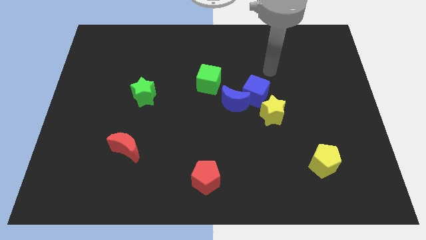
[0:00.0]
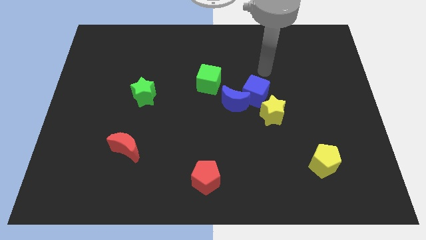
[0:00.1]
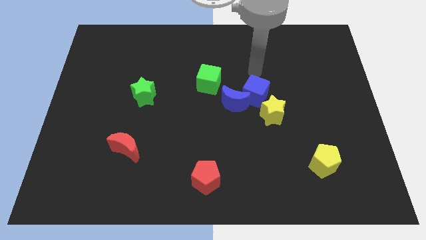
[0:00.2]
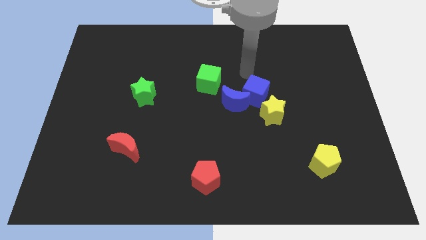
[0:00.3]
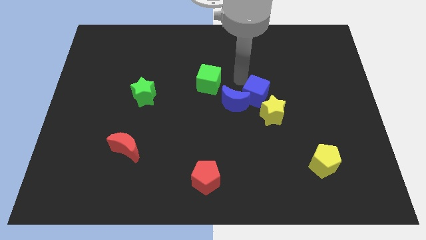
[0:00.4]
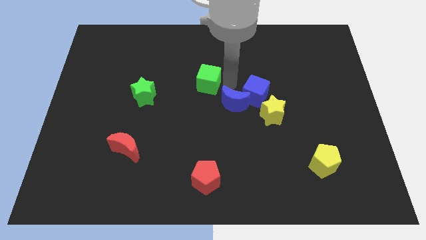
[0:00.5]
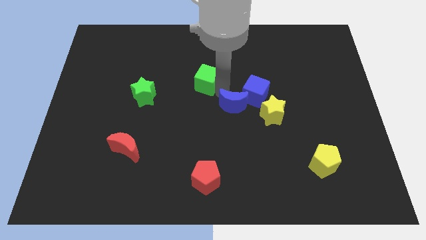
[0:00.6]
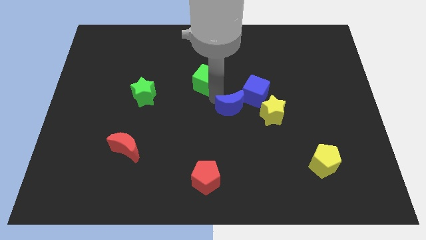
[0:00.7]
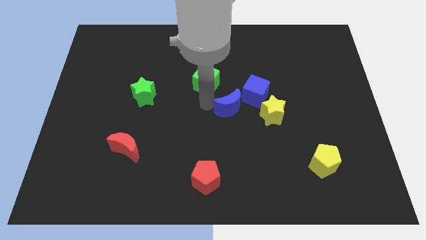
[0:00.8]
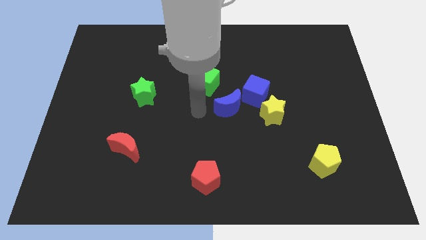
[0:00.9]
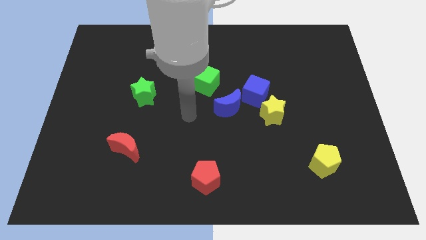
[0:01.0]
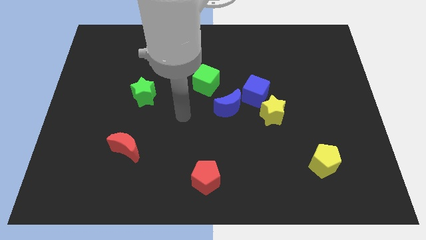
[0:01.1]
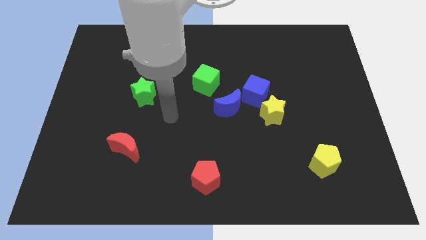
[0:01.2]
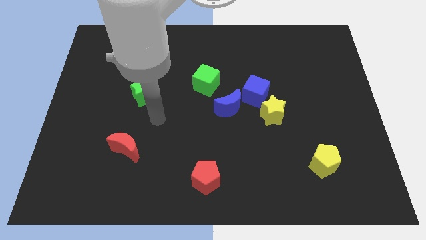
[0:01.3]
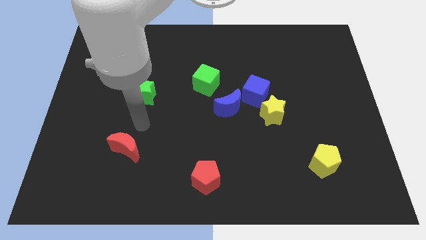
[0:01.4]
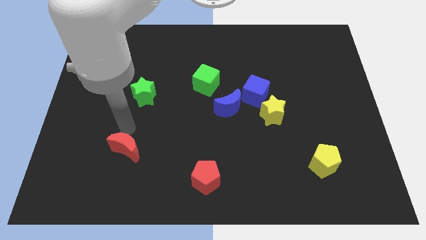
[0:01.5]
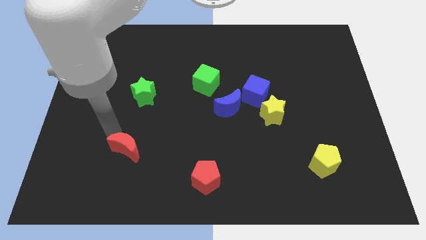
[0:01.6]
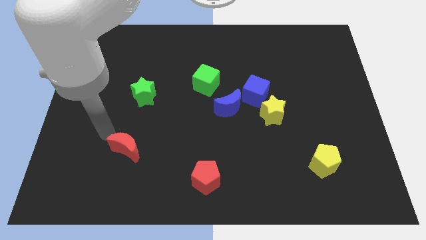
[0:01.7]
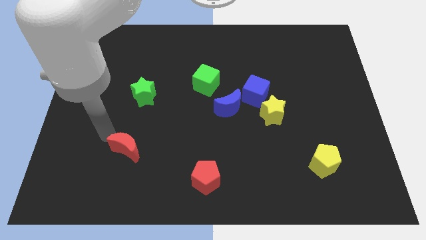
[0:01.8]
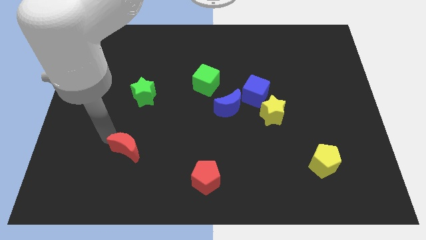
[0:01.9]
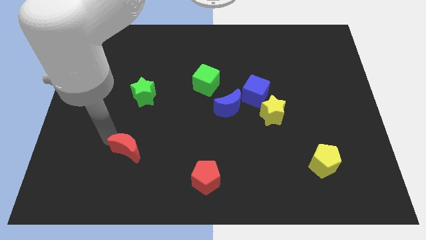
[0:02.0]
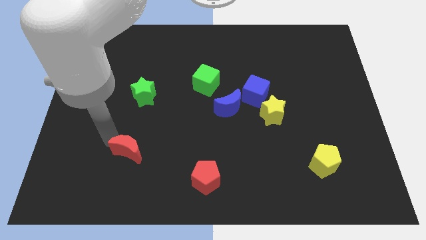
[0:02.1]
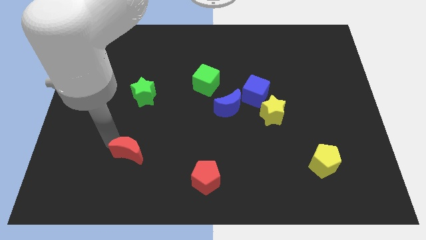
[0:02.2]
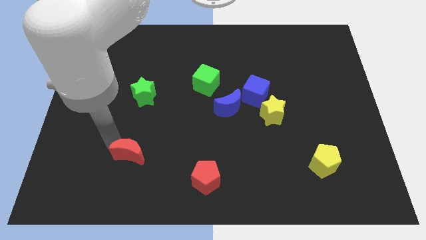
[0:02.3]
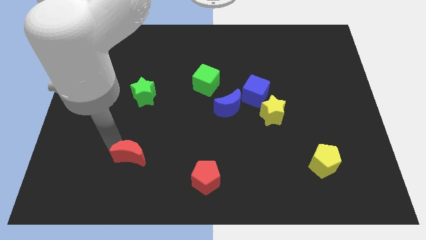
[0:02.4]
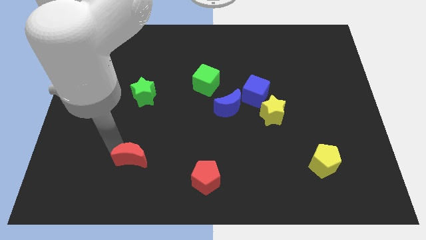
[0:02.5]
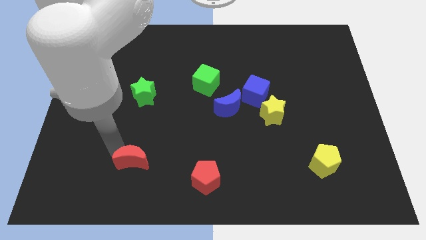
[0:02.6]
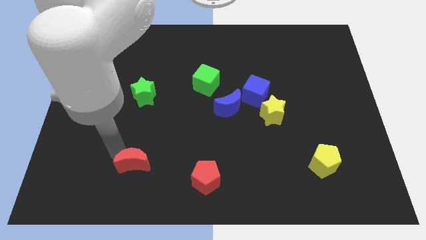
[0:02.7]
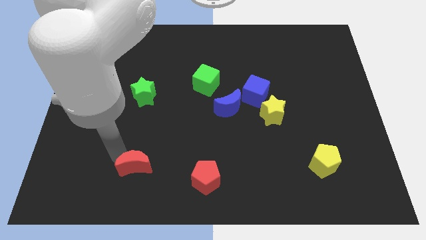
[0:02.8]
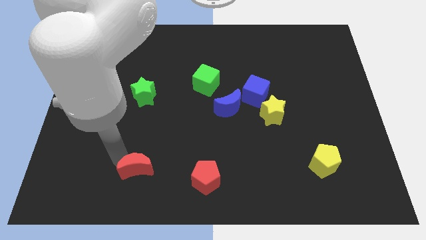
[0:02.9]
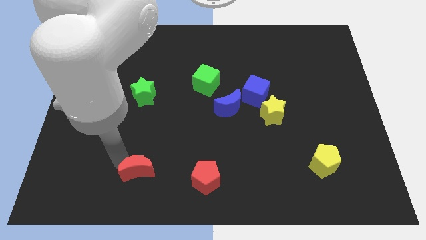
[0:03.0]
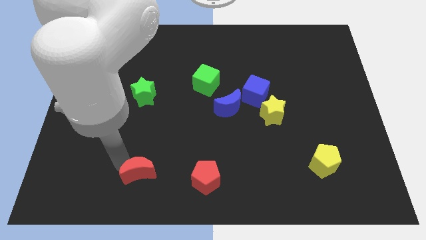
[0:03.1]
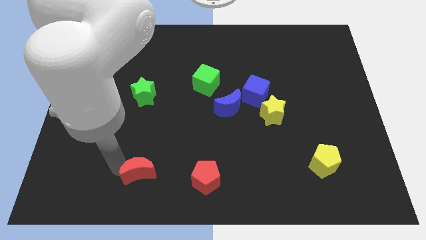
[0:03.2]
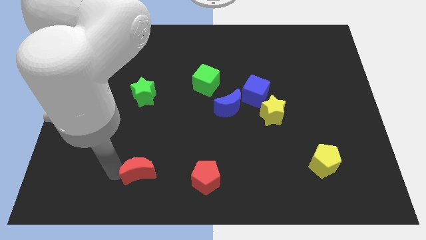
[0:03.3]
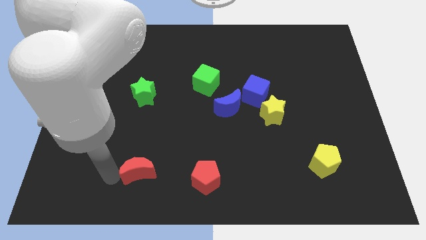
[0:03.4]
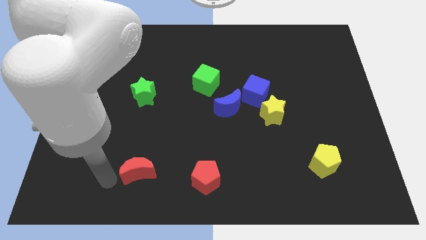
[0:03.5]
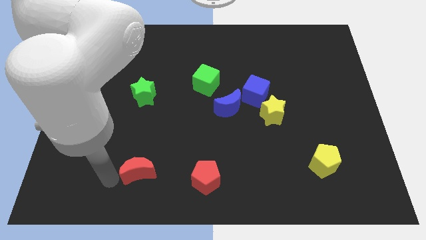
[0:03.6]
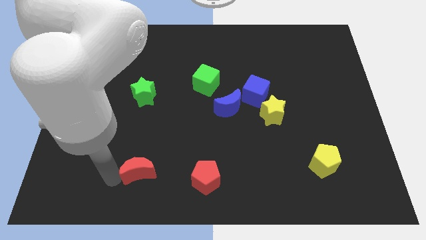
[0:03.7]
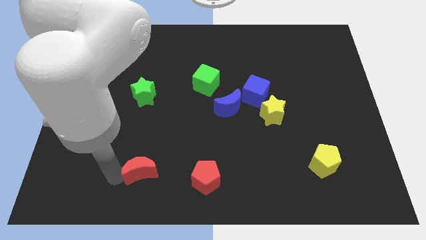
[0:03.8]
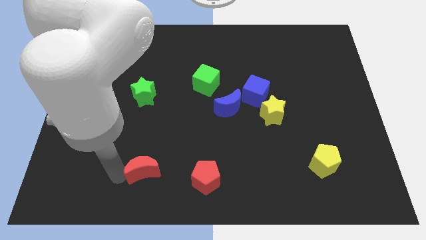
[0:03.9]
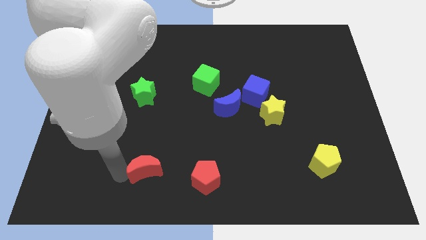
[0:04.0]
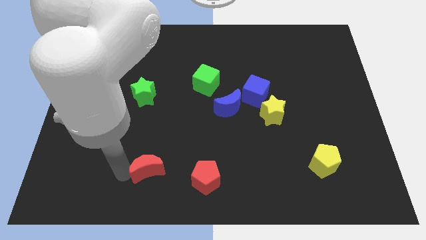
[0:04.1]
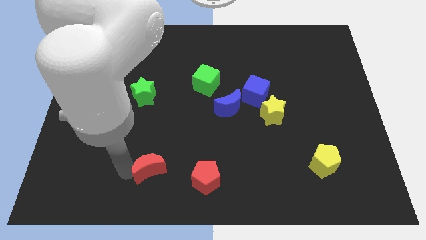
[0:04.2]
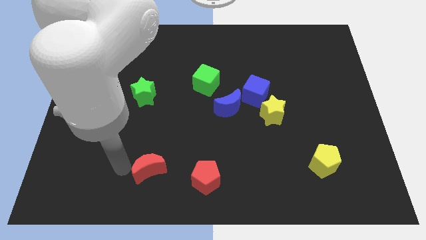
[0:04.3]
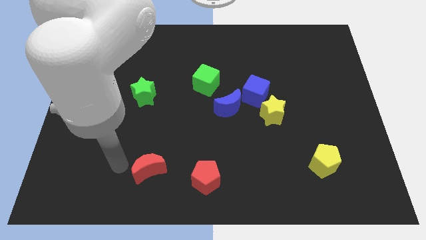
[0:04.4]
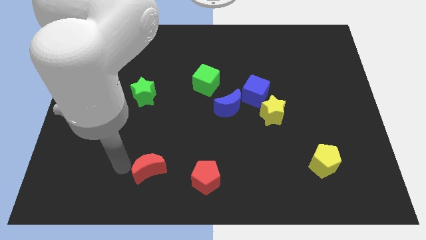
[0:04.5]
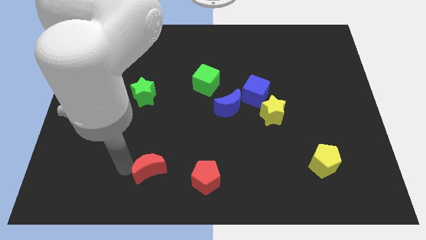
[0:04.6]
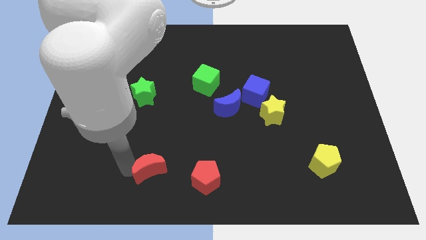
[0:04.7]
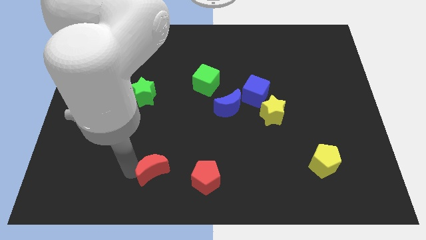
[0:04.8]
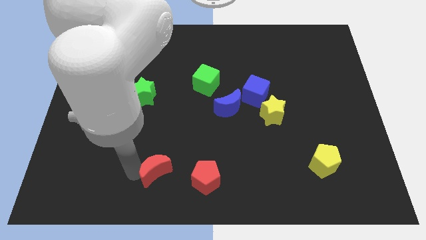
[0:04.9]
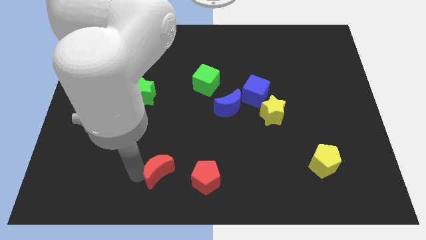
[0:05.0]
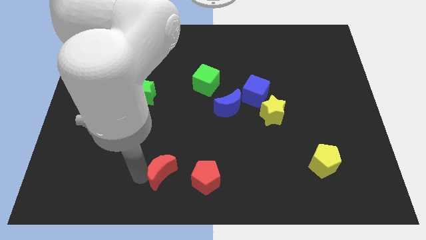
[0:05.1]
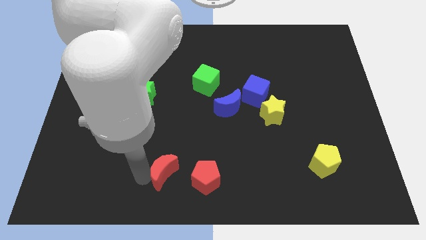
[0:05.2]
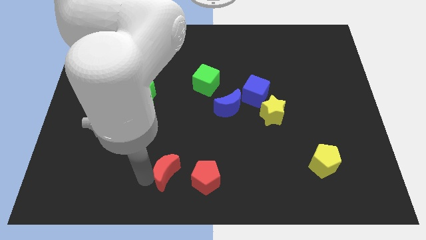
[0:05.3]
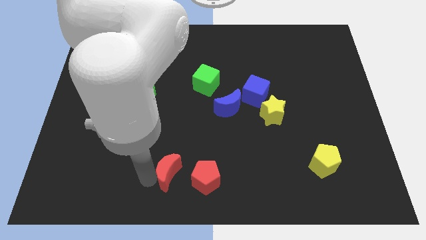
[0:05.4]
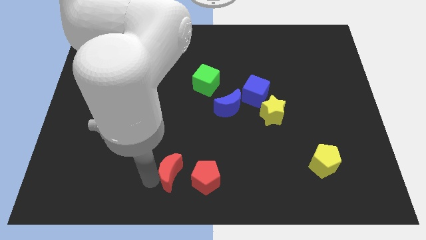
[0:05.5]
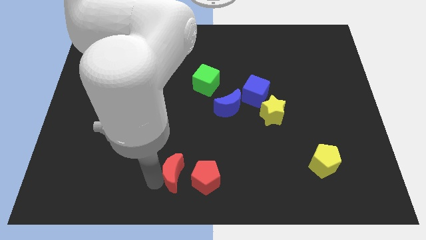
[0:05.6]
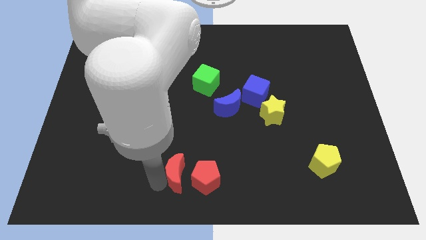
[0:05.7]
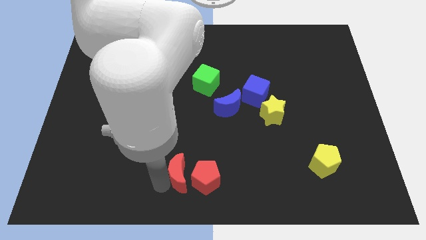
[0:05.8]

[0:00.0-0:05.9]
push the red moon towards the red pentagon

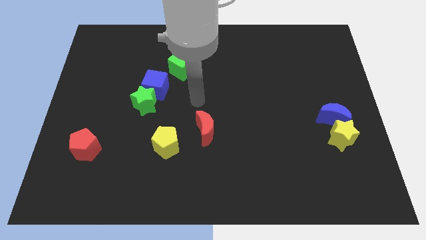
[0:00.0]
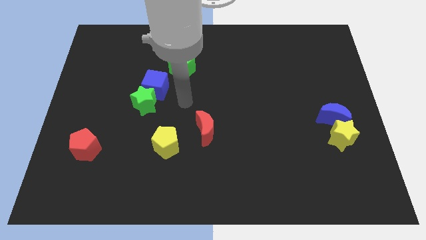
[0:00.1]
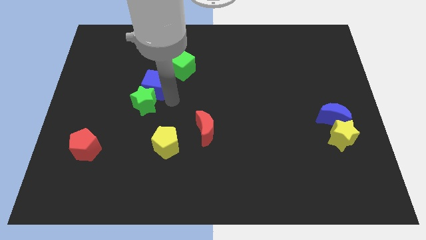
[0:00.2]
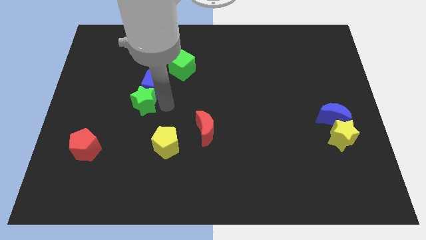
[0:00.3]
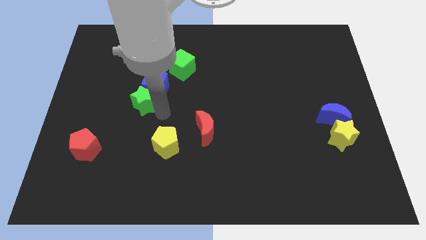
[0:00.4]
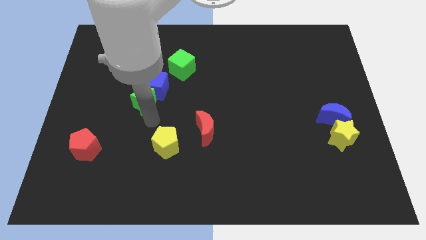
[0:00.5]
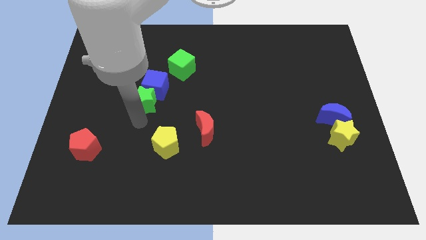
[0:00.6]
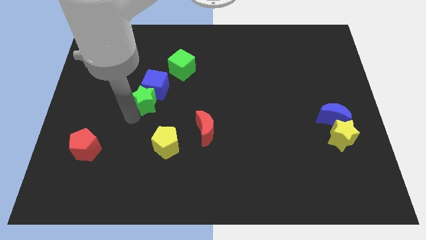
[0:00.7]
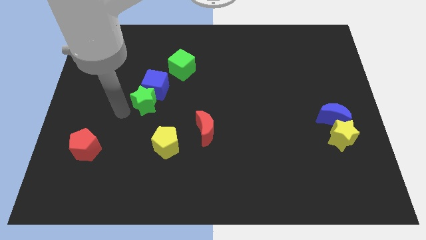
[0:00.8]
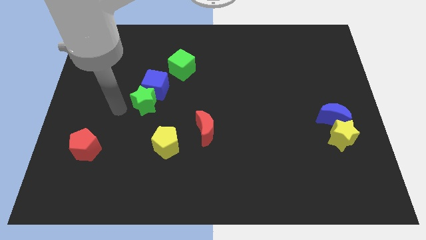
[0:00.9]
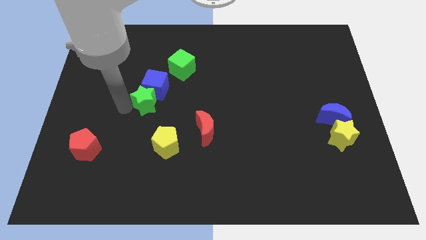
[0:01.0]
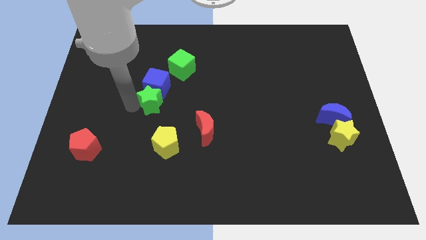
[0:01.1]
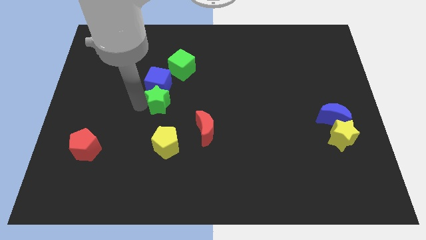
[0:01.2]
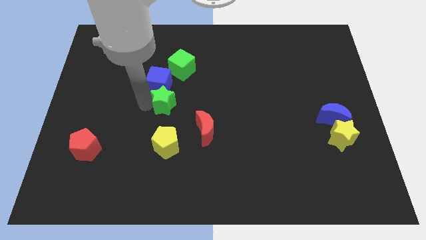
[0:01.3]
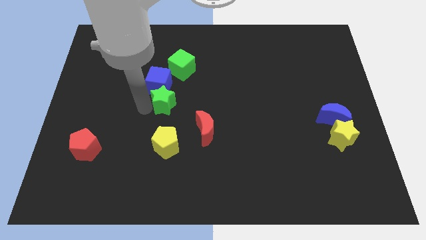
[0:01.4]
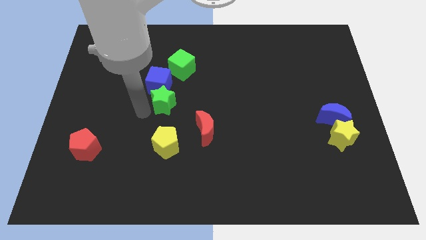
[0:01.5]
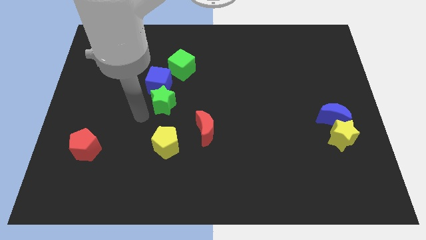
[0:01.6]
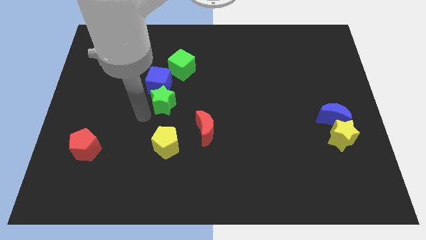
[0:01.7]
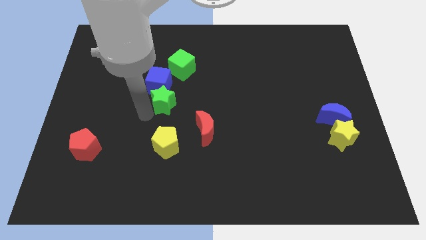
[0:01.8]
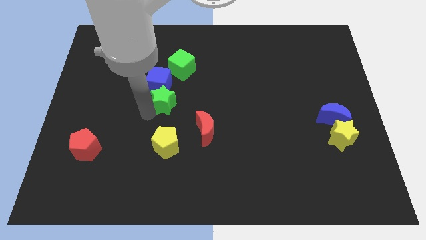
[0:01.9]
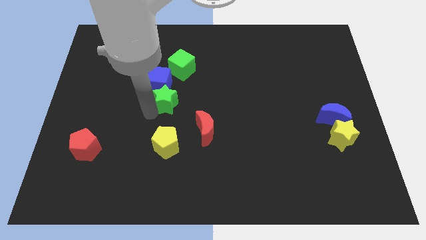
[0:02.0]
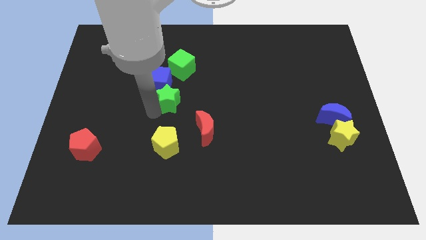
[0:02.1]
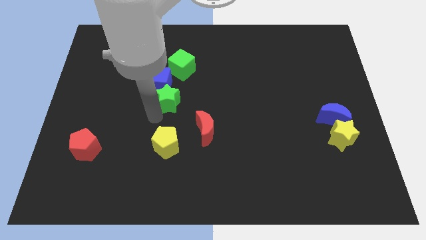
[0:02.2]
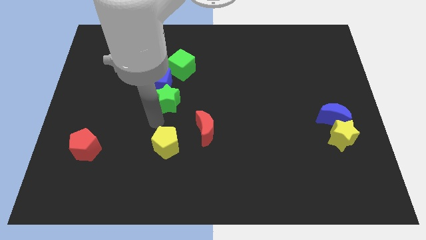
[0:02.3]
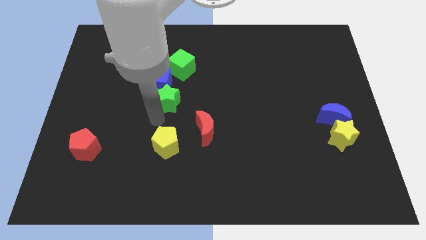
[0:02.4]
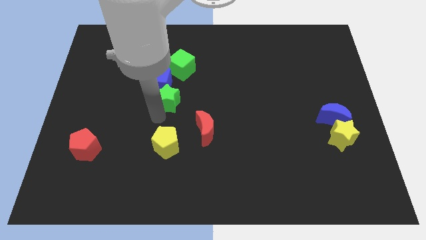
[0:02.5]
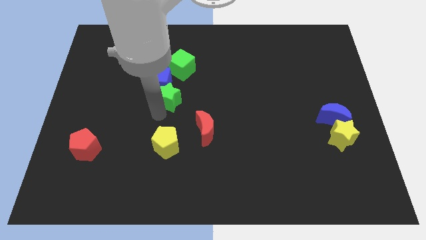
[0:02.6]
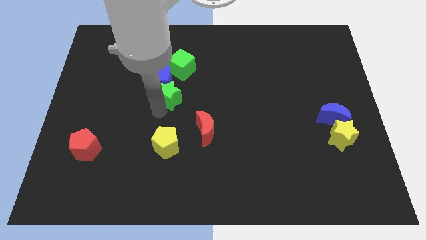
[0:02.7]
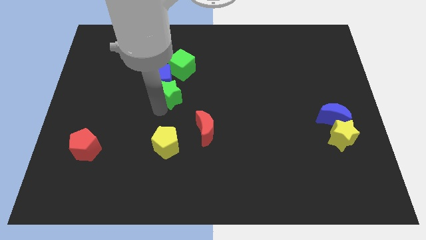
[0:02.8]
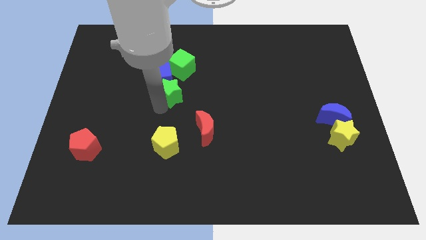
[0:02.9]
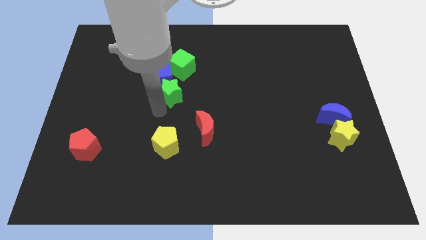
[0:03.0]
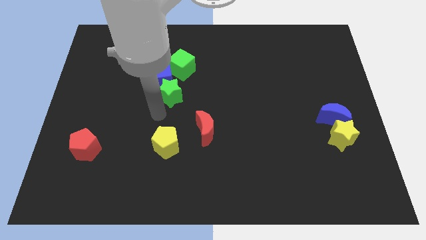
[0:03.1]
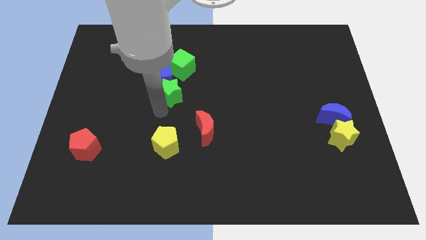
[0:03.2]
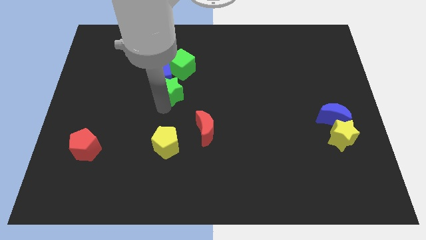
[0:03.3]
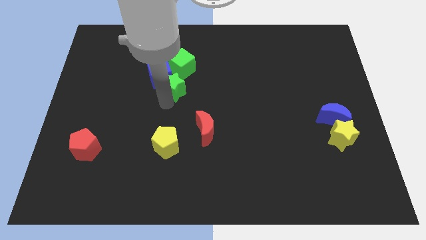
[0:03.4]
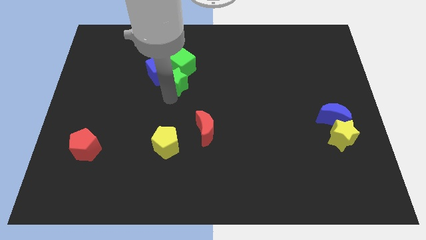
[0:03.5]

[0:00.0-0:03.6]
put the green star towards the green cube
